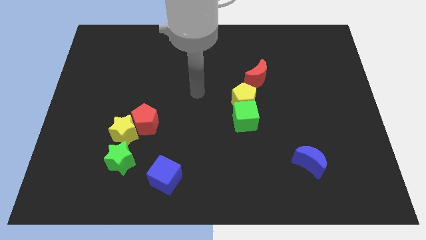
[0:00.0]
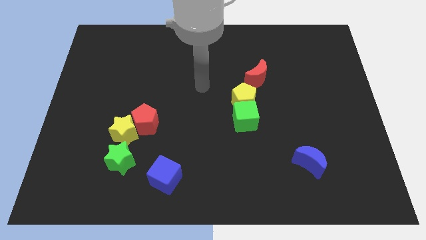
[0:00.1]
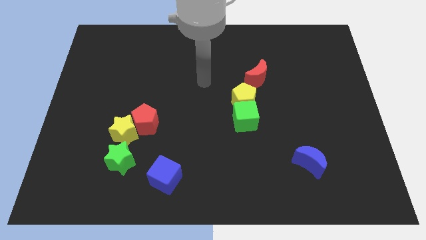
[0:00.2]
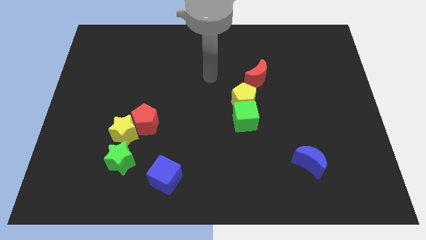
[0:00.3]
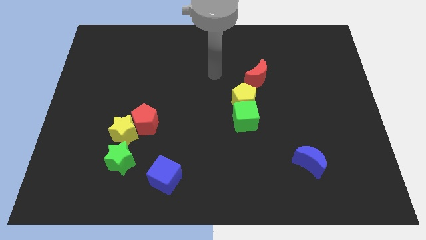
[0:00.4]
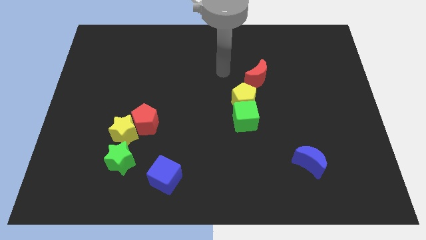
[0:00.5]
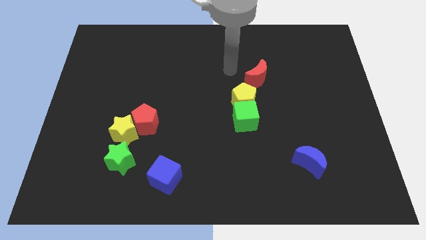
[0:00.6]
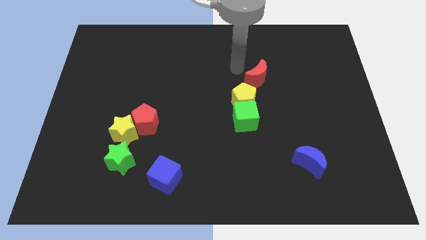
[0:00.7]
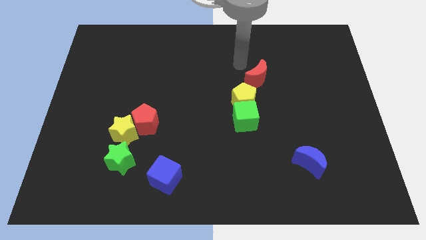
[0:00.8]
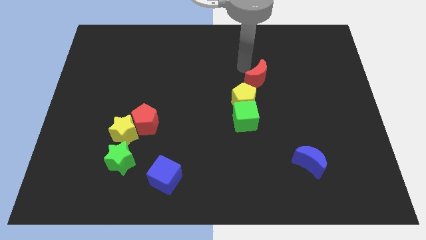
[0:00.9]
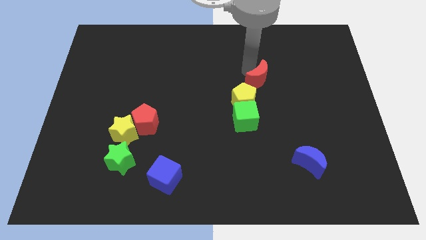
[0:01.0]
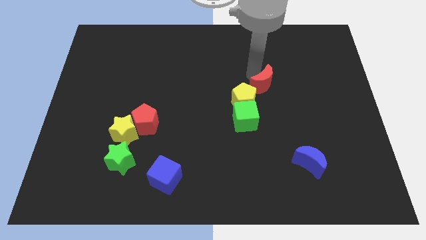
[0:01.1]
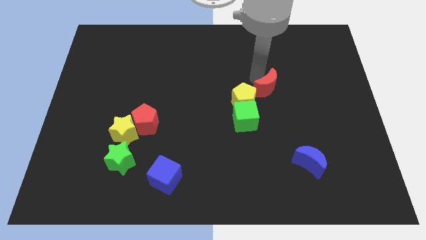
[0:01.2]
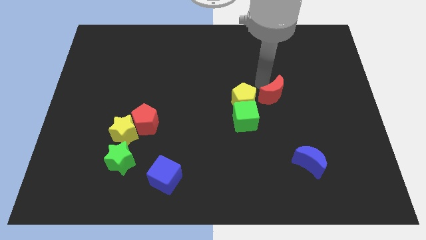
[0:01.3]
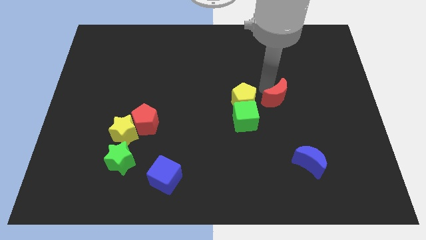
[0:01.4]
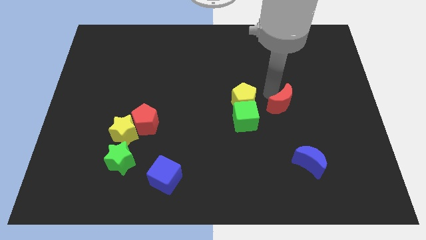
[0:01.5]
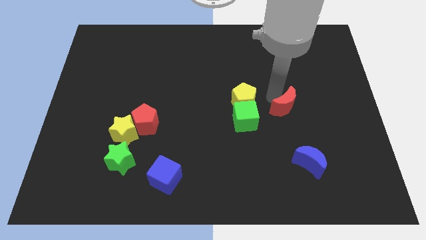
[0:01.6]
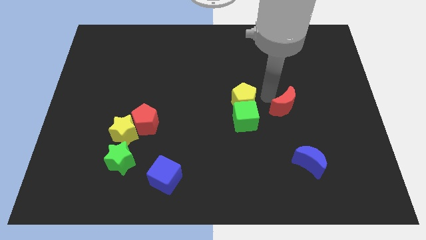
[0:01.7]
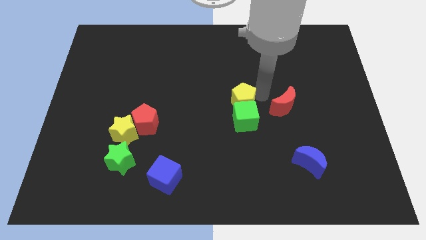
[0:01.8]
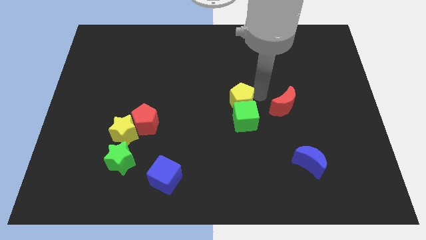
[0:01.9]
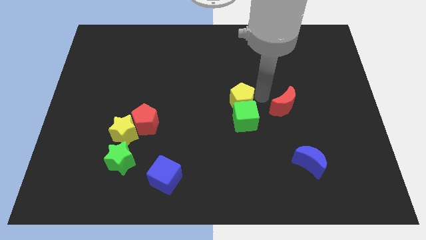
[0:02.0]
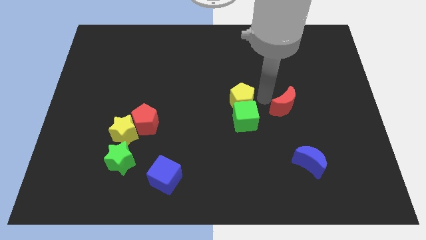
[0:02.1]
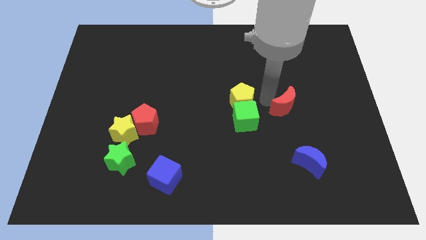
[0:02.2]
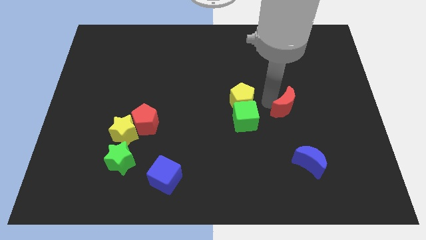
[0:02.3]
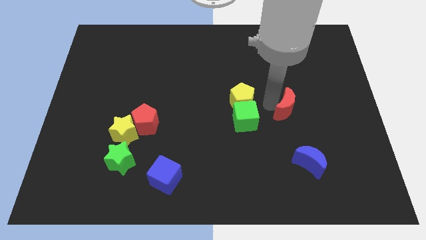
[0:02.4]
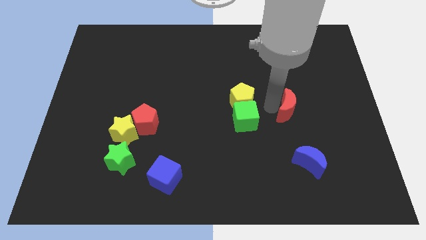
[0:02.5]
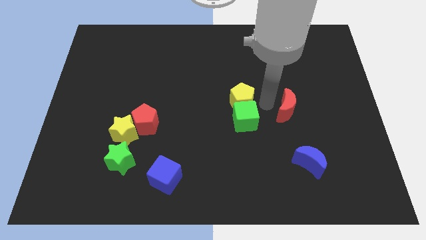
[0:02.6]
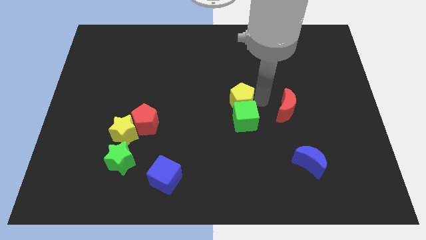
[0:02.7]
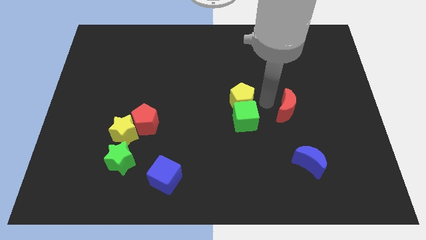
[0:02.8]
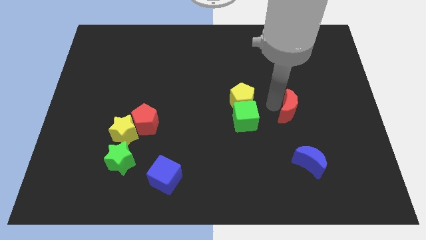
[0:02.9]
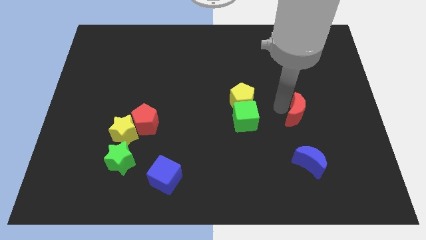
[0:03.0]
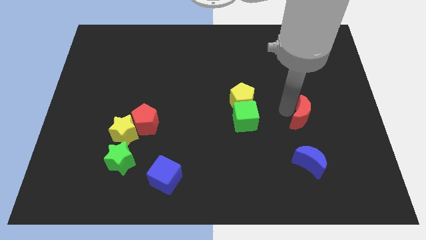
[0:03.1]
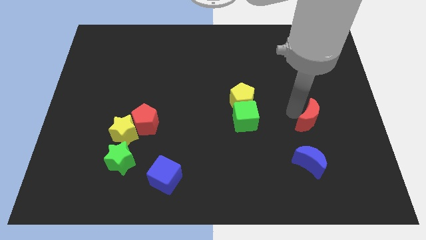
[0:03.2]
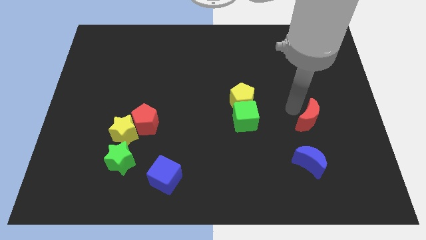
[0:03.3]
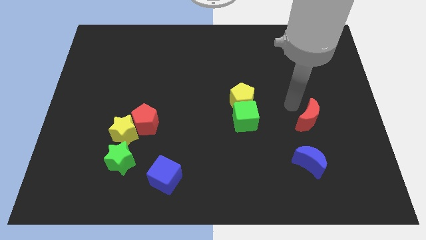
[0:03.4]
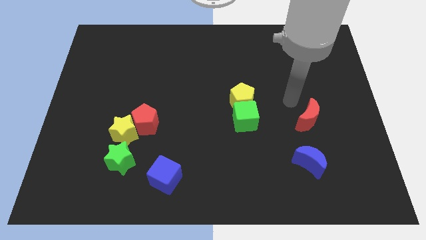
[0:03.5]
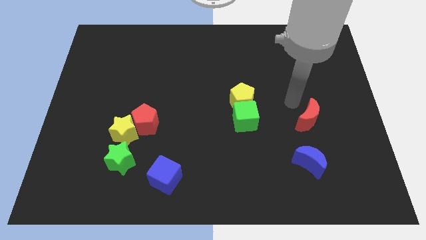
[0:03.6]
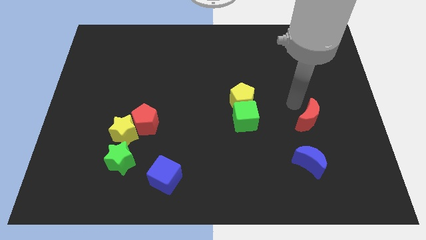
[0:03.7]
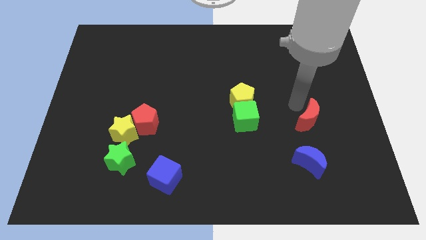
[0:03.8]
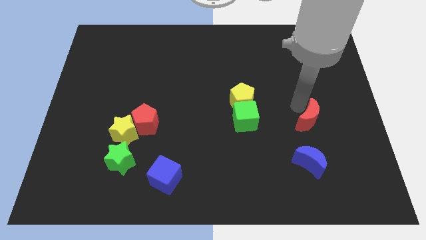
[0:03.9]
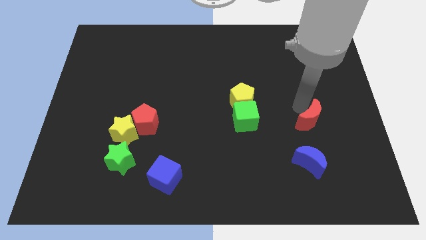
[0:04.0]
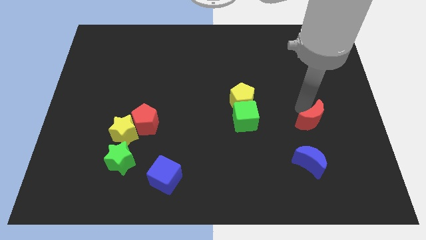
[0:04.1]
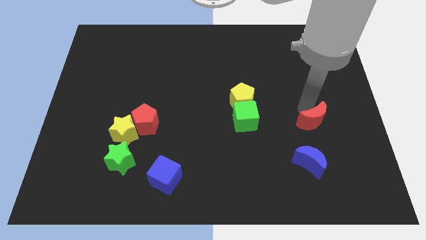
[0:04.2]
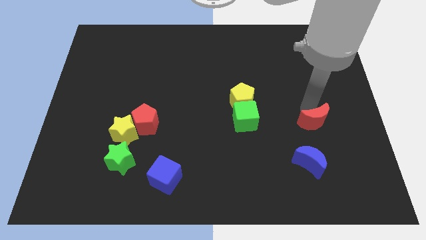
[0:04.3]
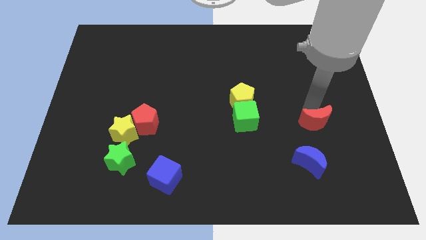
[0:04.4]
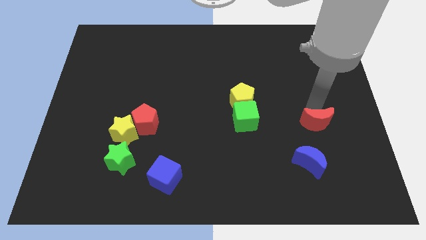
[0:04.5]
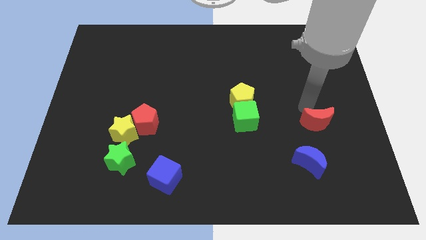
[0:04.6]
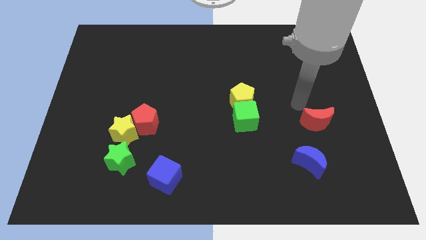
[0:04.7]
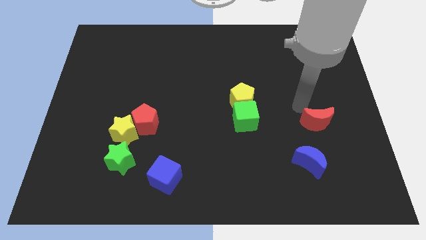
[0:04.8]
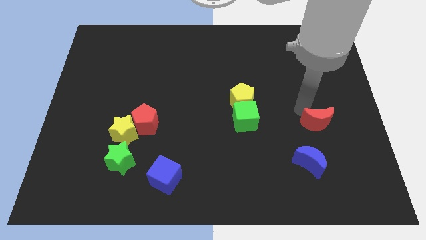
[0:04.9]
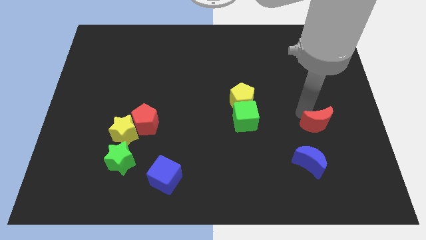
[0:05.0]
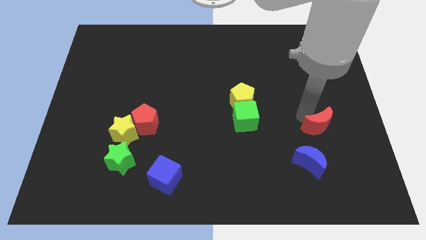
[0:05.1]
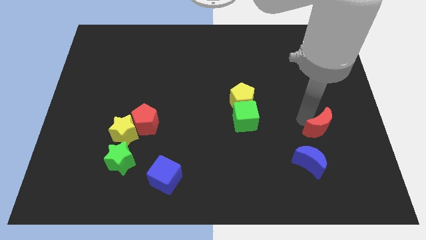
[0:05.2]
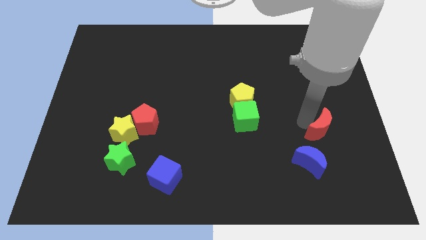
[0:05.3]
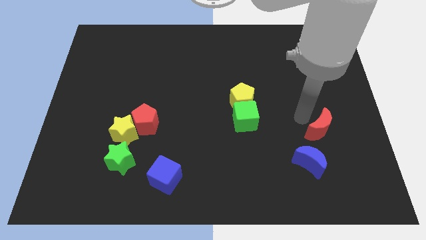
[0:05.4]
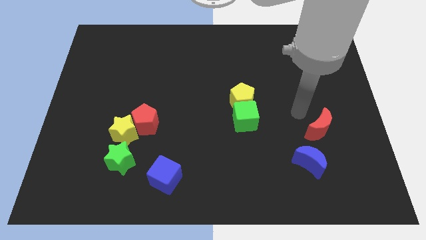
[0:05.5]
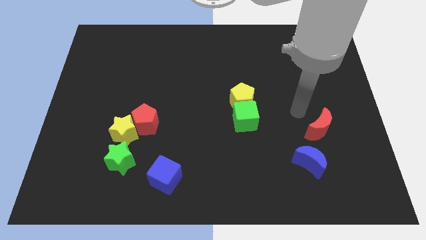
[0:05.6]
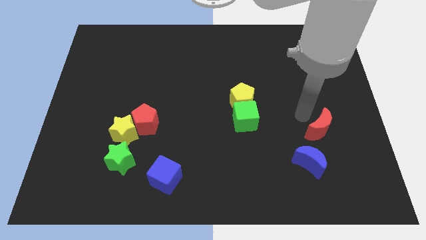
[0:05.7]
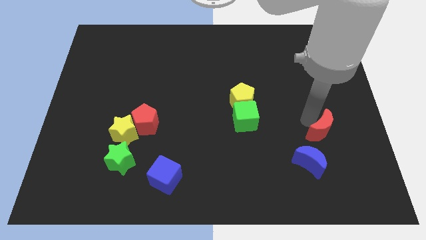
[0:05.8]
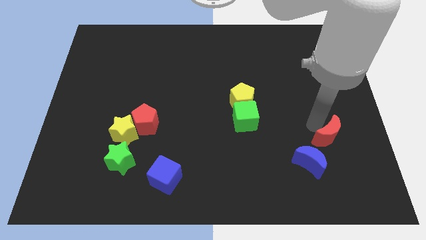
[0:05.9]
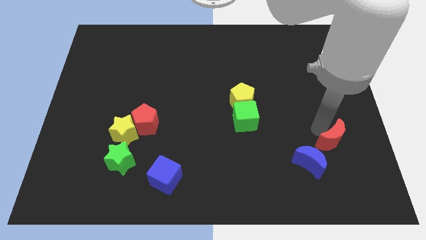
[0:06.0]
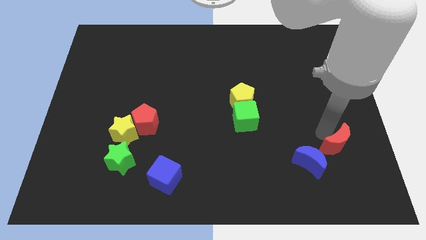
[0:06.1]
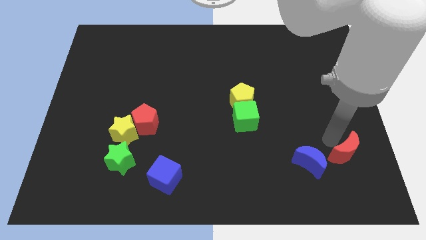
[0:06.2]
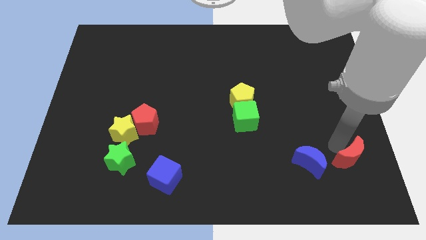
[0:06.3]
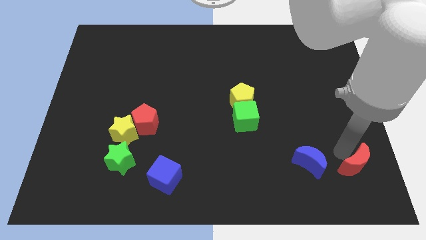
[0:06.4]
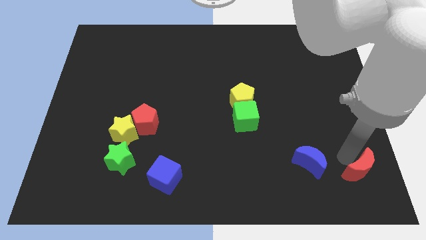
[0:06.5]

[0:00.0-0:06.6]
put the red moon to the bottom right
